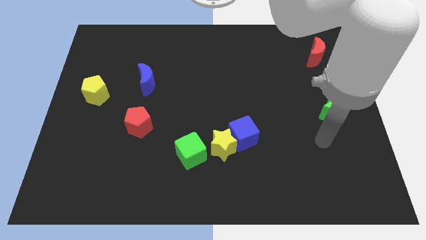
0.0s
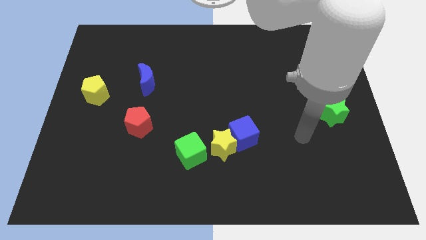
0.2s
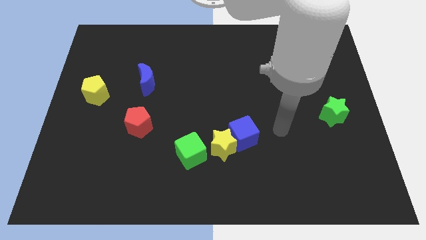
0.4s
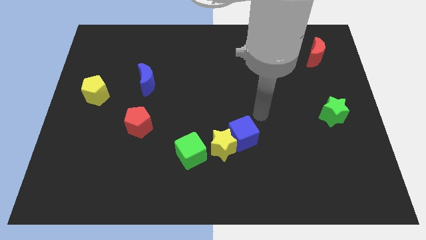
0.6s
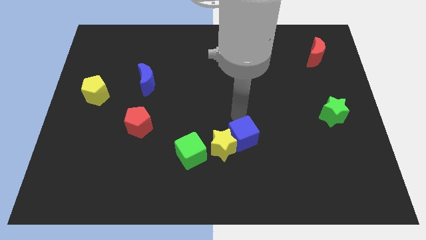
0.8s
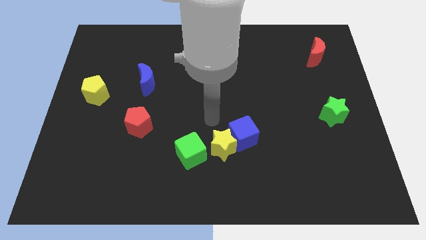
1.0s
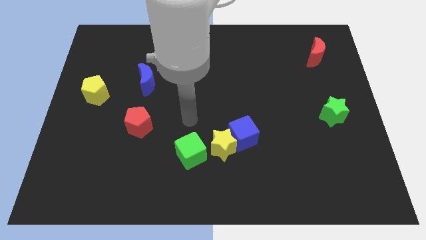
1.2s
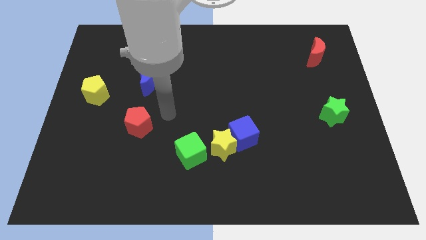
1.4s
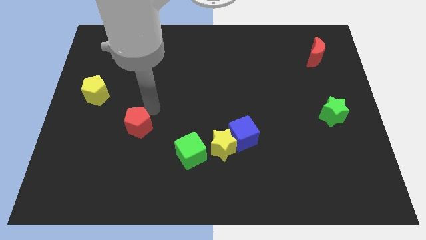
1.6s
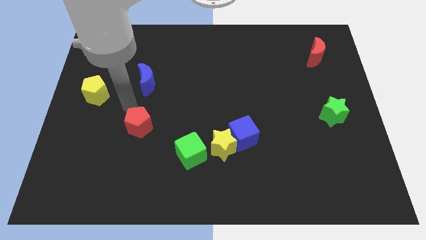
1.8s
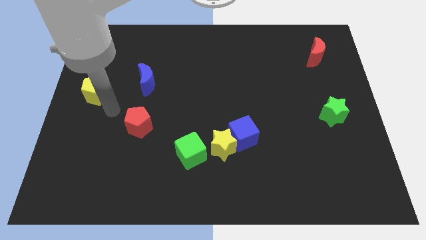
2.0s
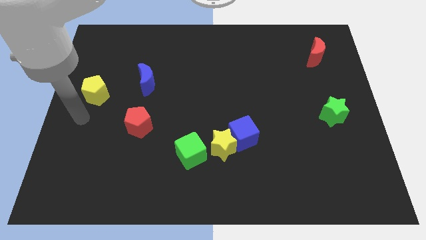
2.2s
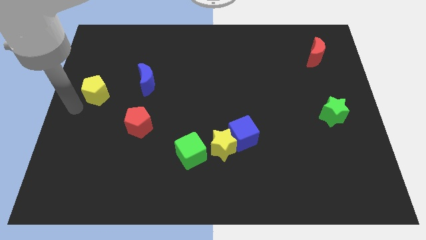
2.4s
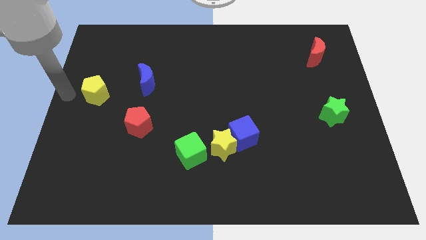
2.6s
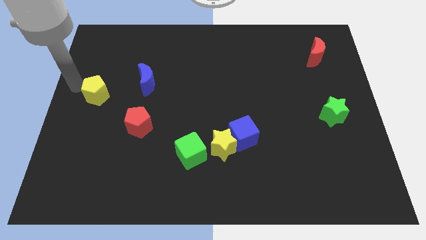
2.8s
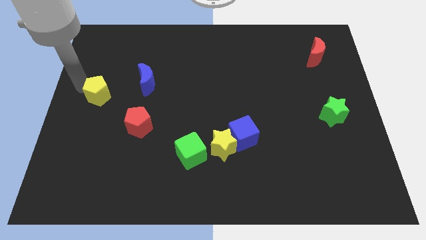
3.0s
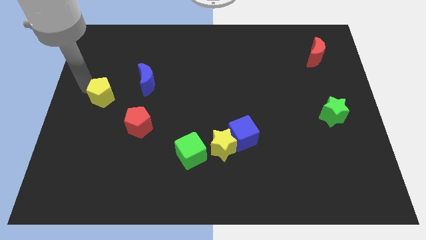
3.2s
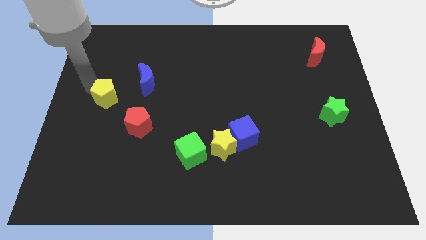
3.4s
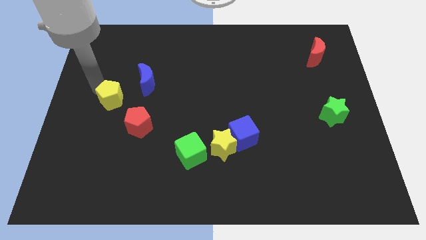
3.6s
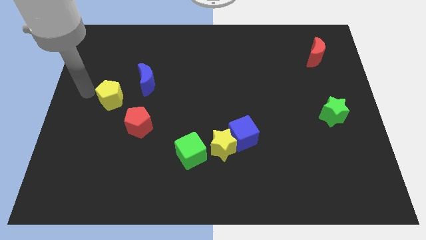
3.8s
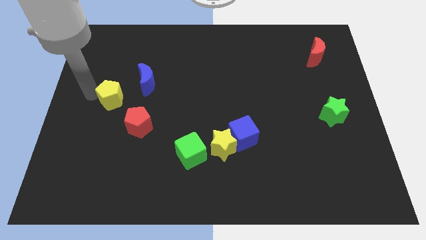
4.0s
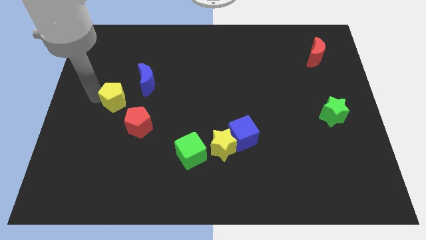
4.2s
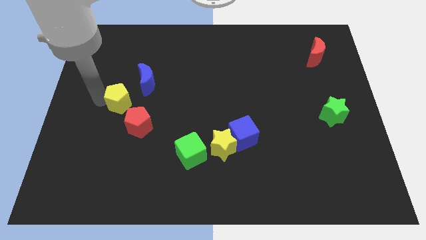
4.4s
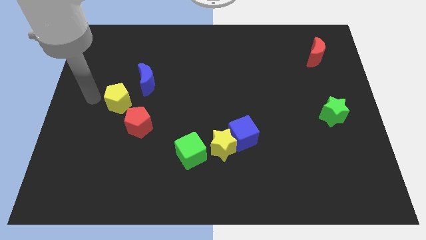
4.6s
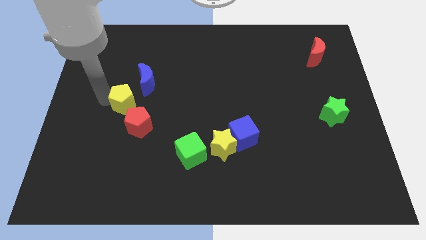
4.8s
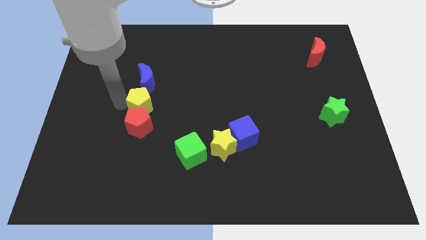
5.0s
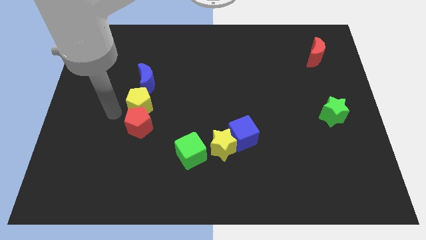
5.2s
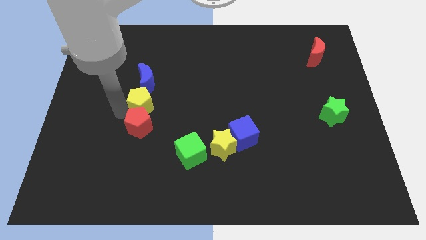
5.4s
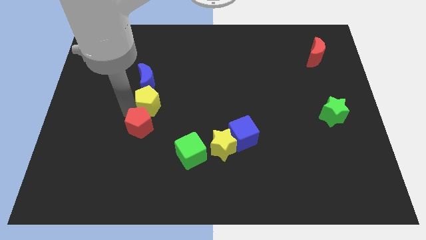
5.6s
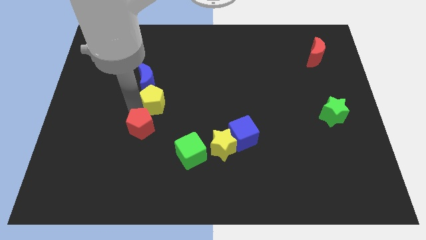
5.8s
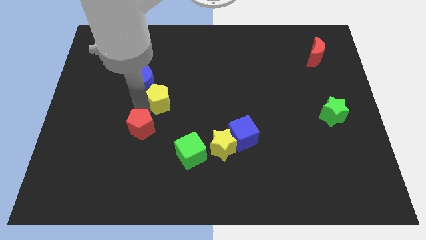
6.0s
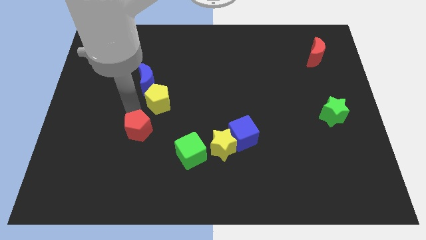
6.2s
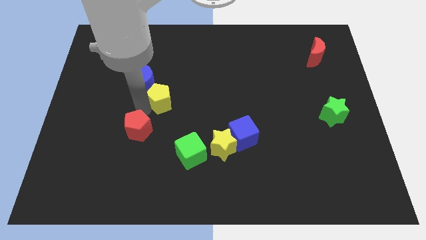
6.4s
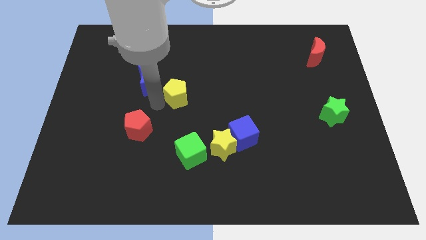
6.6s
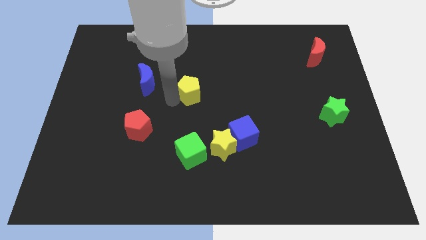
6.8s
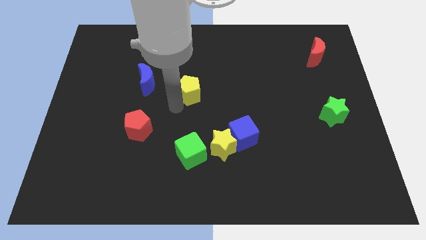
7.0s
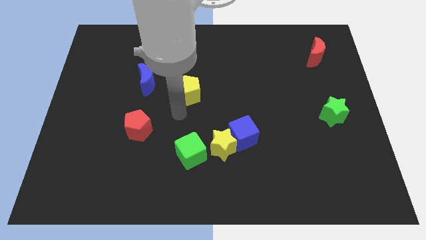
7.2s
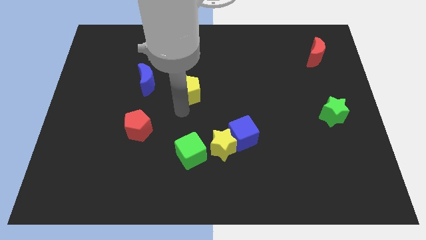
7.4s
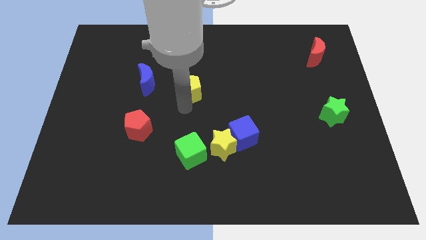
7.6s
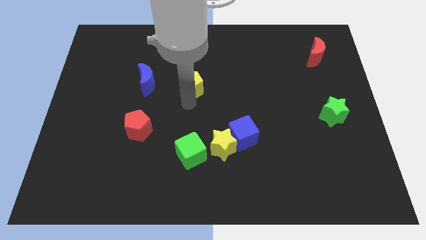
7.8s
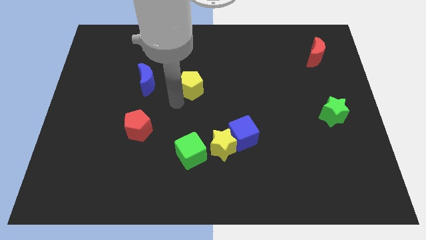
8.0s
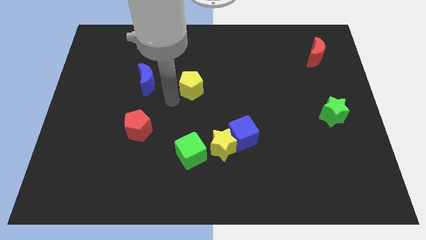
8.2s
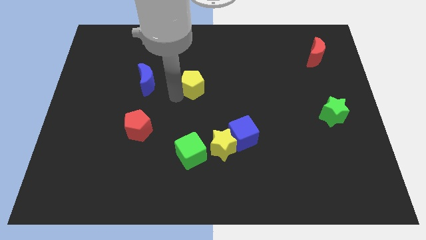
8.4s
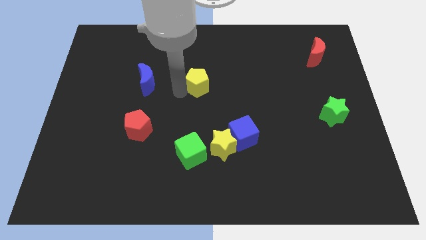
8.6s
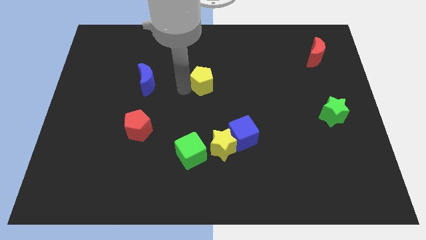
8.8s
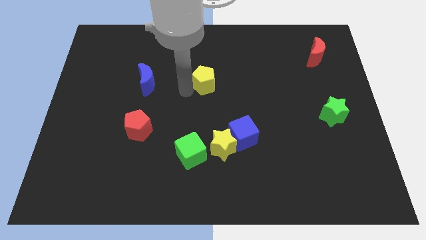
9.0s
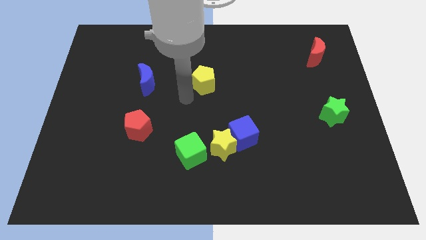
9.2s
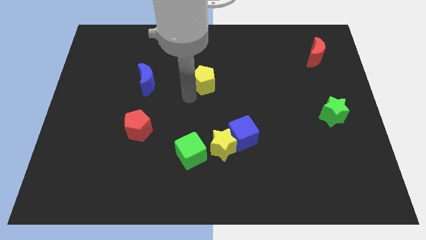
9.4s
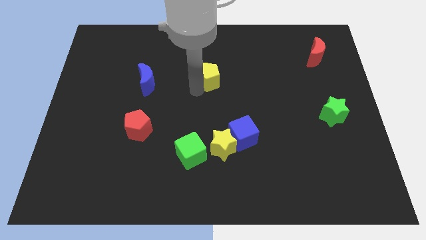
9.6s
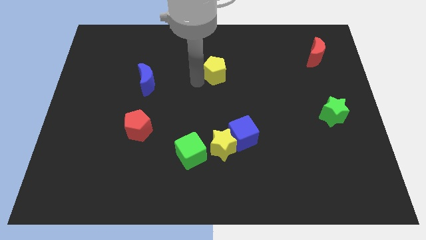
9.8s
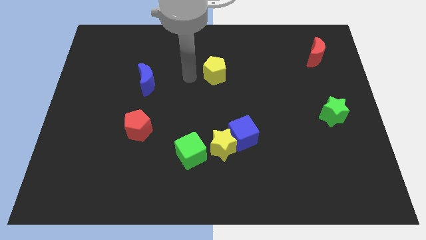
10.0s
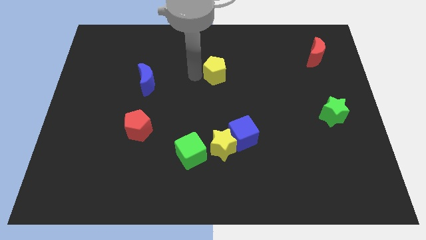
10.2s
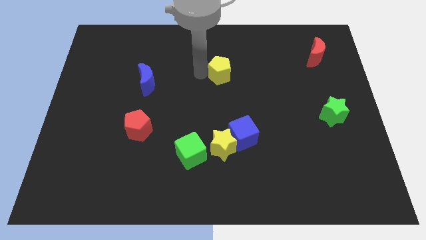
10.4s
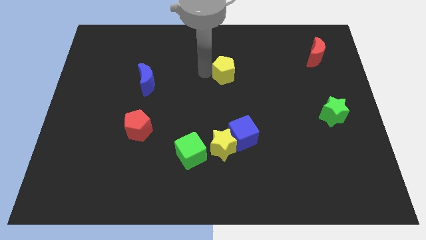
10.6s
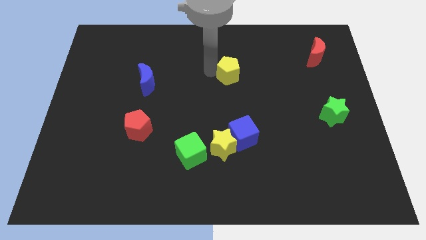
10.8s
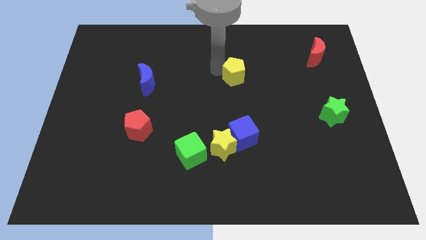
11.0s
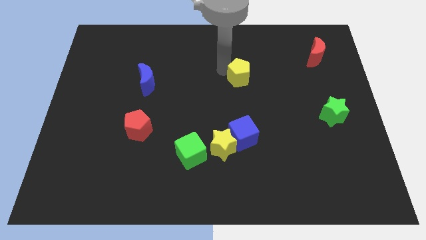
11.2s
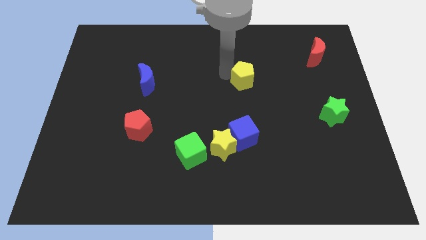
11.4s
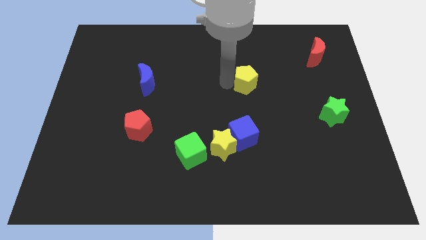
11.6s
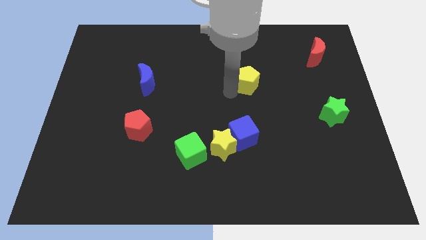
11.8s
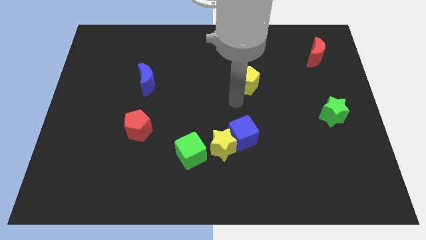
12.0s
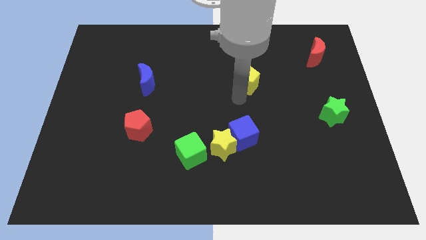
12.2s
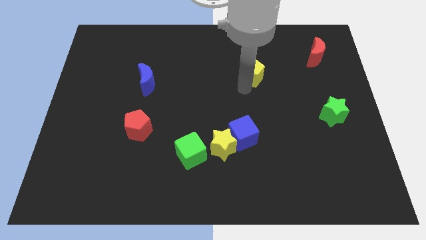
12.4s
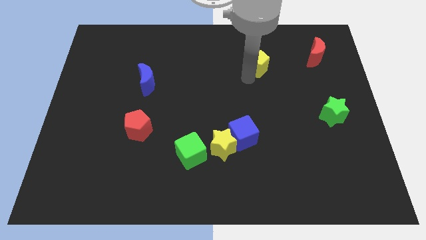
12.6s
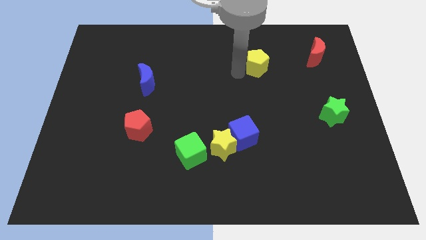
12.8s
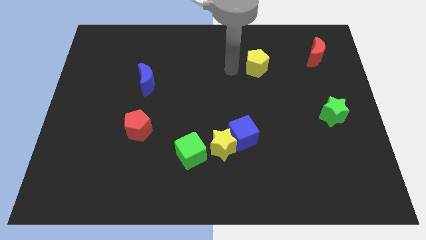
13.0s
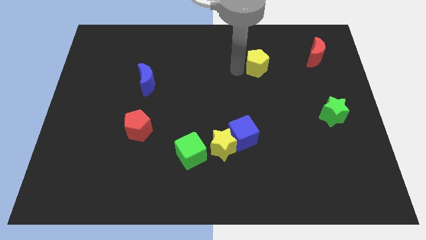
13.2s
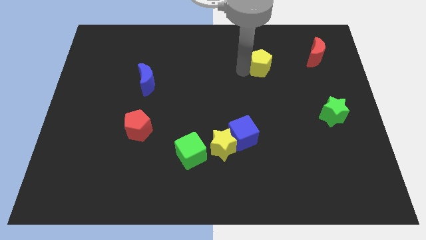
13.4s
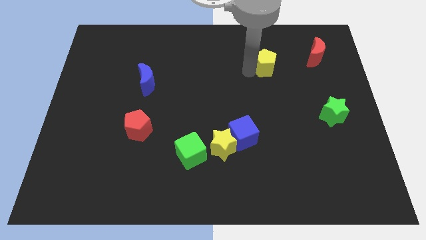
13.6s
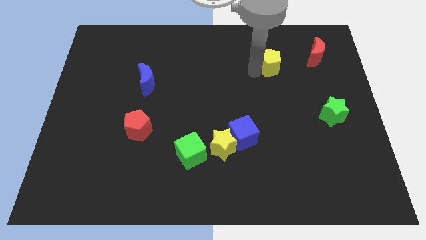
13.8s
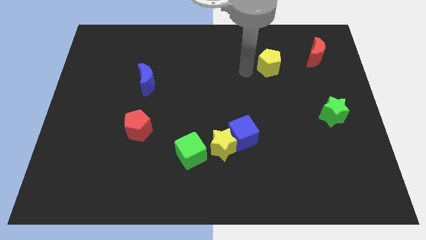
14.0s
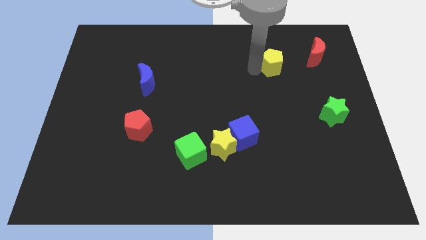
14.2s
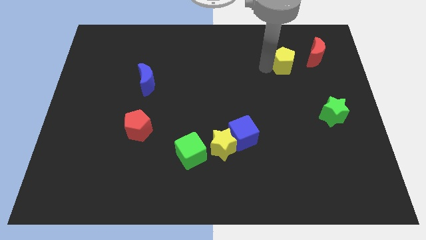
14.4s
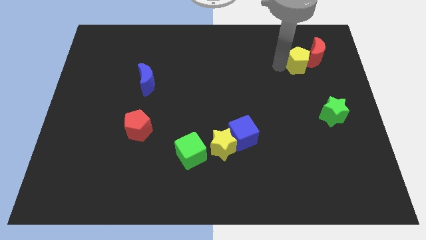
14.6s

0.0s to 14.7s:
move the yellow pentagon close to the red moon
